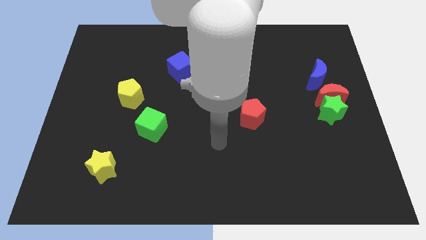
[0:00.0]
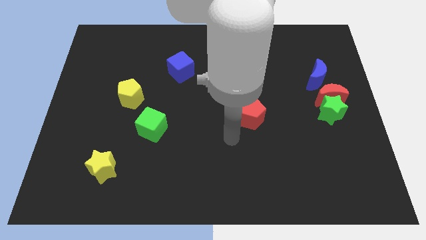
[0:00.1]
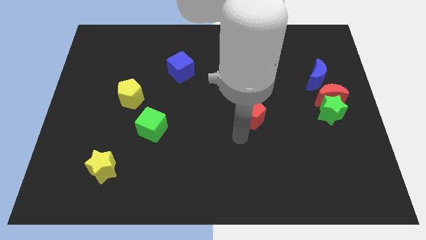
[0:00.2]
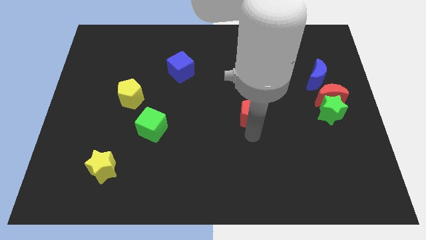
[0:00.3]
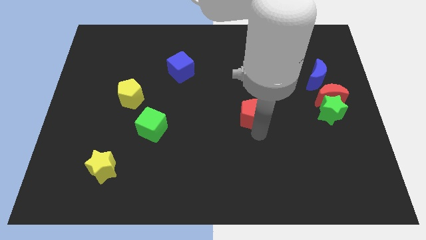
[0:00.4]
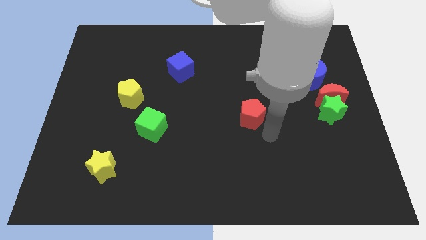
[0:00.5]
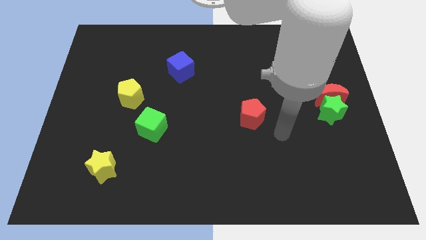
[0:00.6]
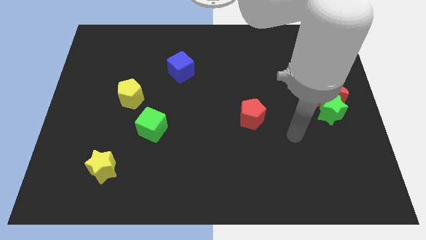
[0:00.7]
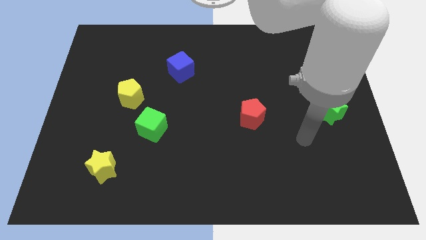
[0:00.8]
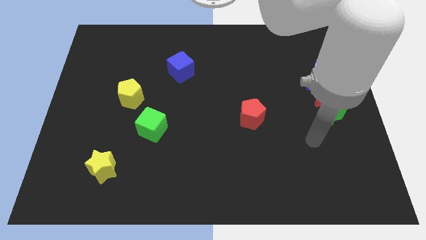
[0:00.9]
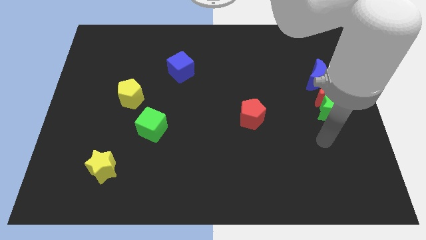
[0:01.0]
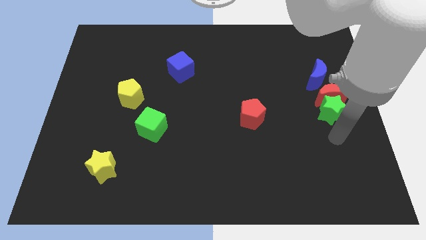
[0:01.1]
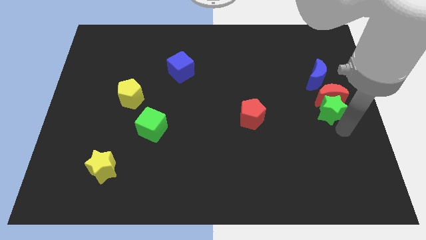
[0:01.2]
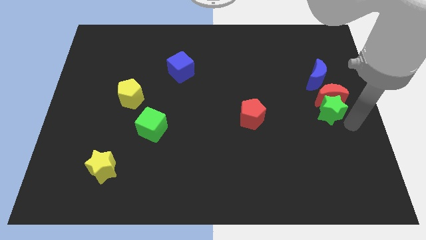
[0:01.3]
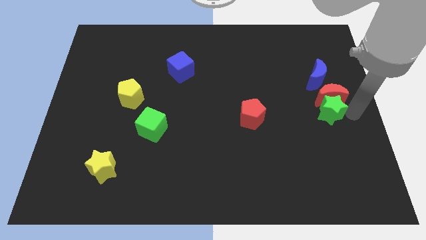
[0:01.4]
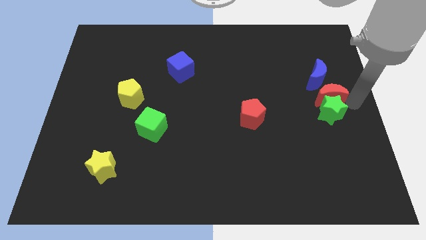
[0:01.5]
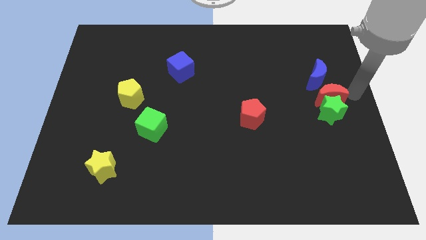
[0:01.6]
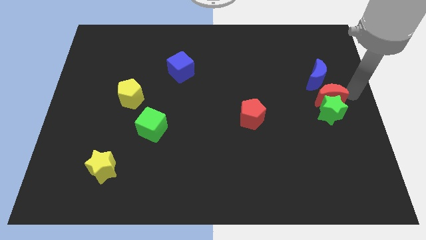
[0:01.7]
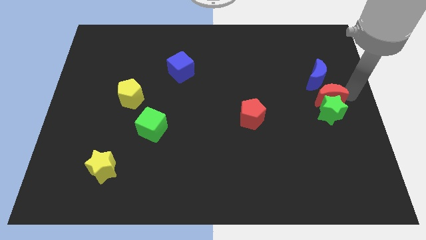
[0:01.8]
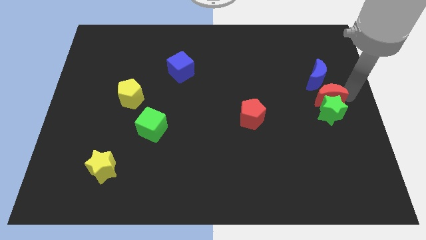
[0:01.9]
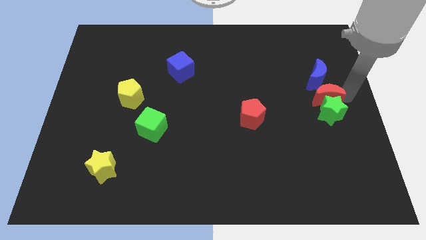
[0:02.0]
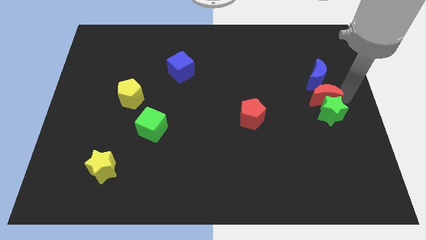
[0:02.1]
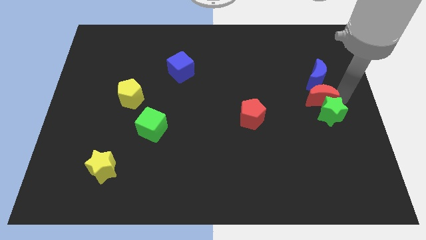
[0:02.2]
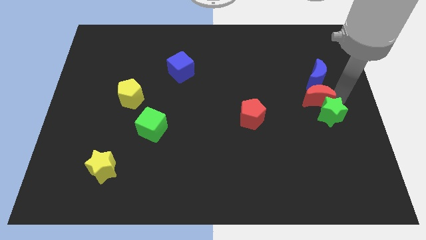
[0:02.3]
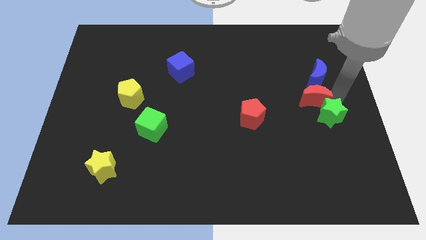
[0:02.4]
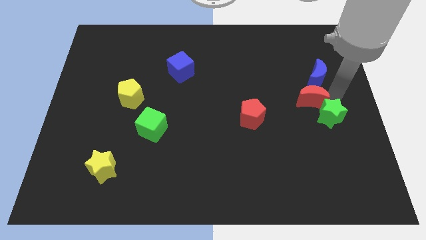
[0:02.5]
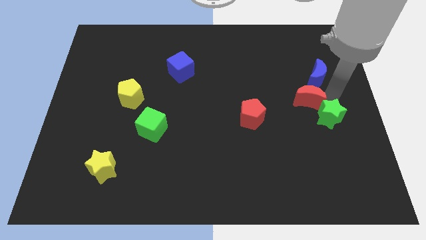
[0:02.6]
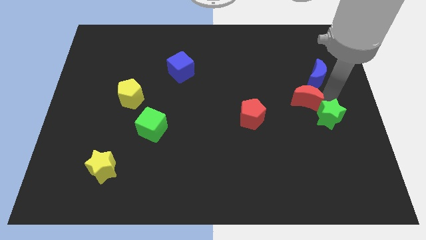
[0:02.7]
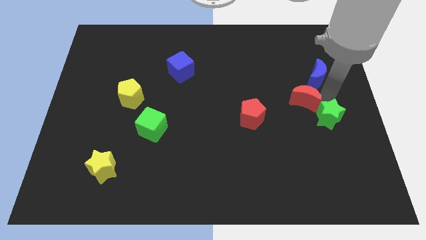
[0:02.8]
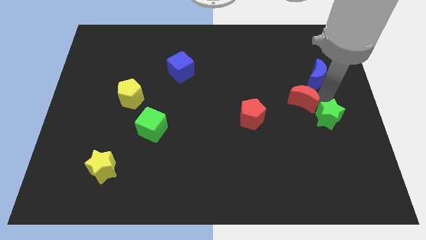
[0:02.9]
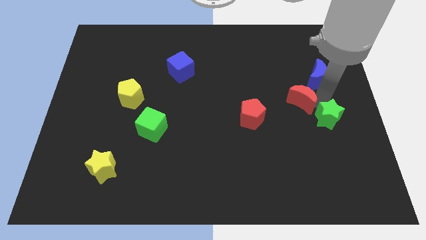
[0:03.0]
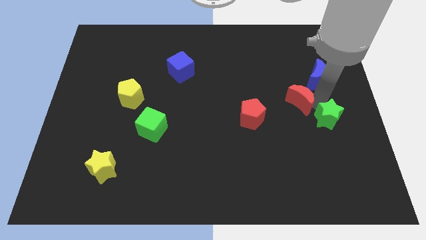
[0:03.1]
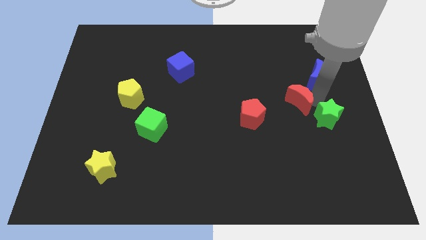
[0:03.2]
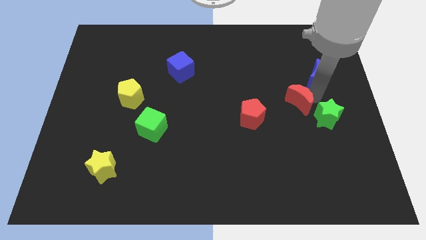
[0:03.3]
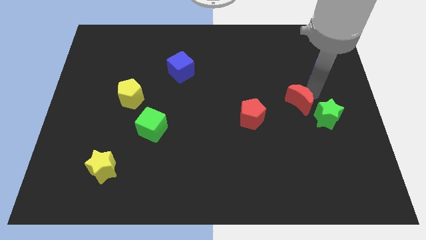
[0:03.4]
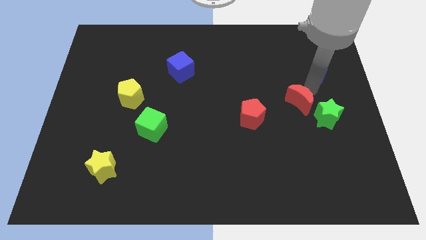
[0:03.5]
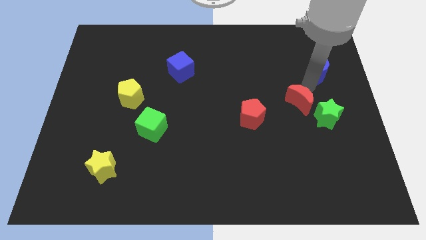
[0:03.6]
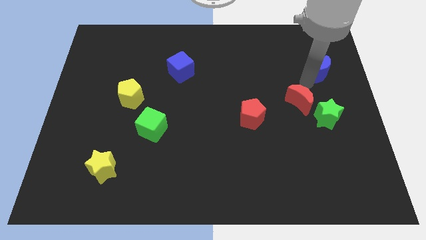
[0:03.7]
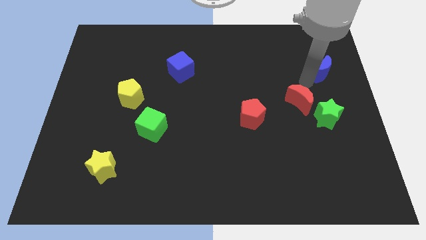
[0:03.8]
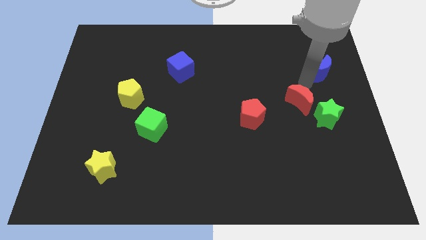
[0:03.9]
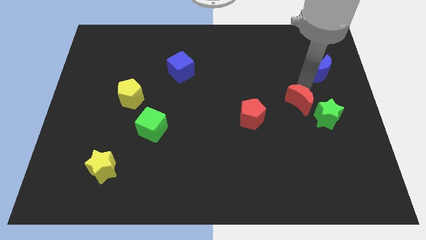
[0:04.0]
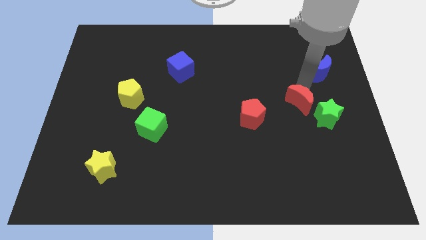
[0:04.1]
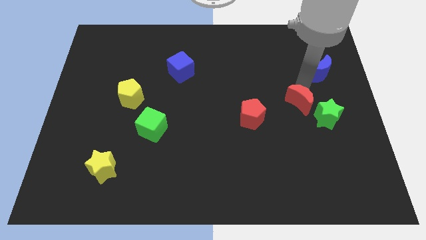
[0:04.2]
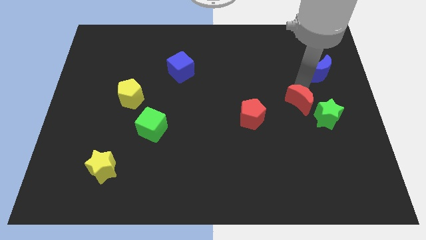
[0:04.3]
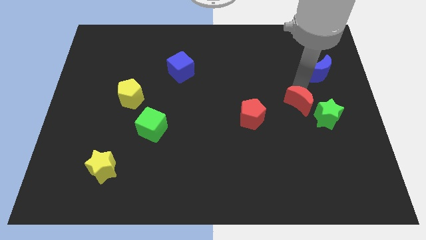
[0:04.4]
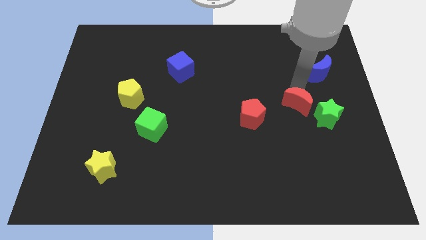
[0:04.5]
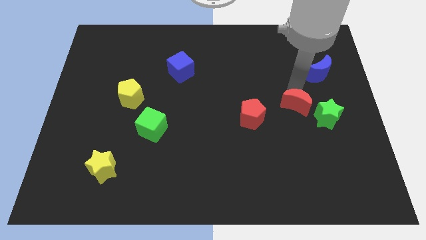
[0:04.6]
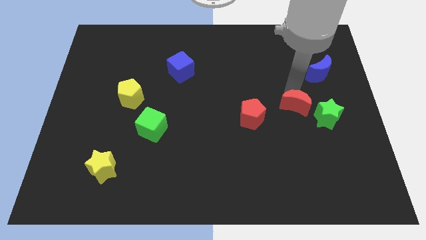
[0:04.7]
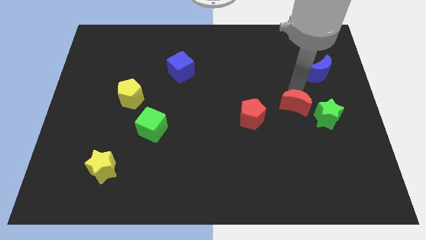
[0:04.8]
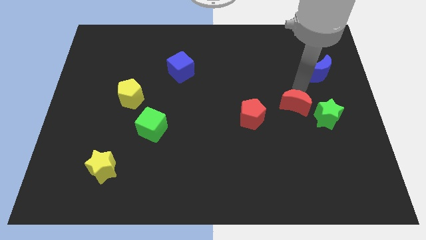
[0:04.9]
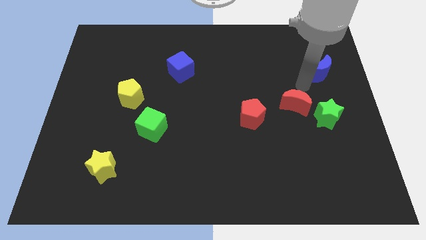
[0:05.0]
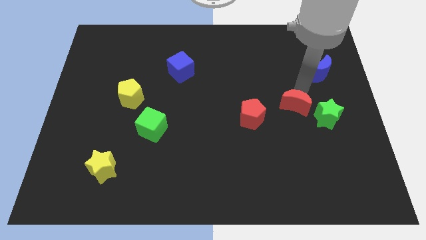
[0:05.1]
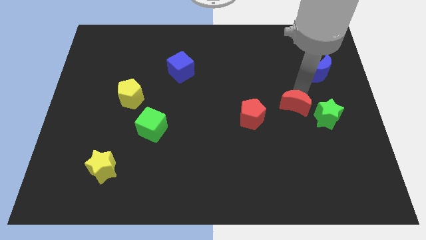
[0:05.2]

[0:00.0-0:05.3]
push the red moon diagonally downwards and to the left a little

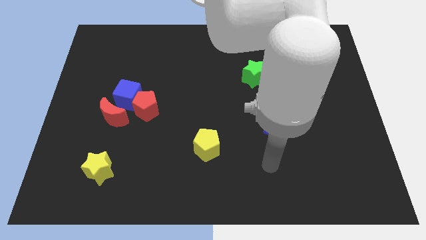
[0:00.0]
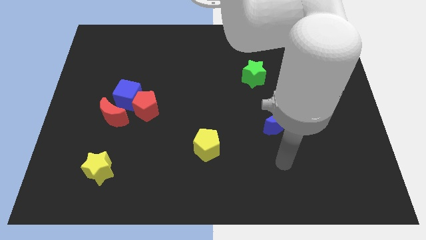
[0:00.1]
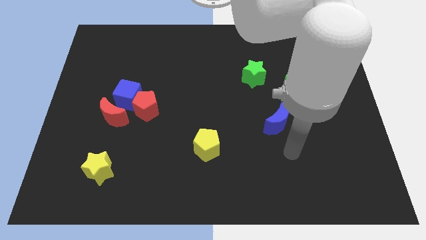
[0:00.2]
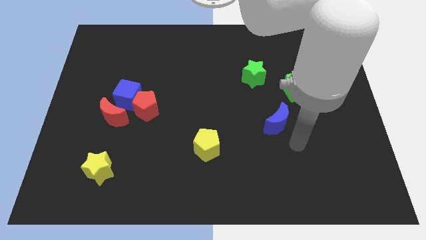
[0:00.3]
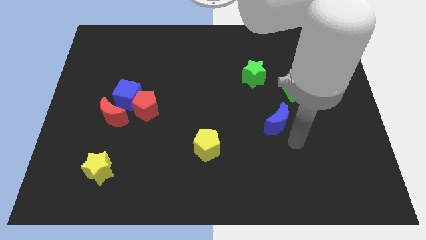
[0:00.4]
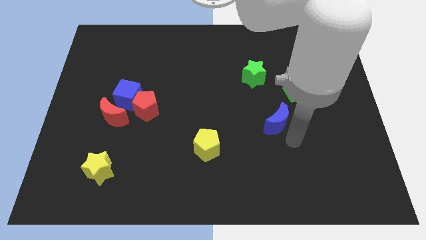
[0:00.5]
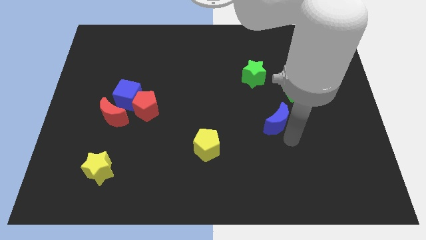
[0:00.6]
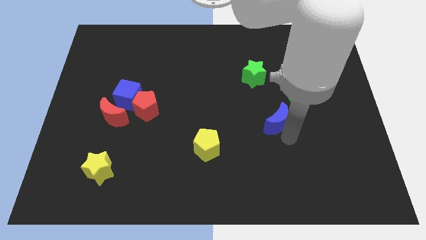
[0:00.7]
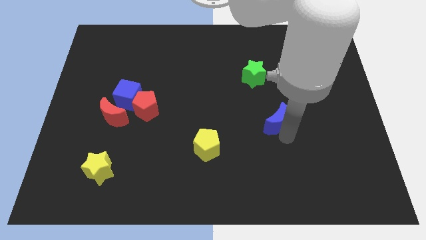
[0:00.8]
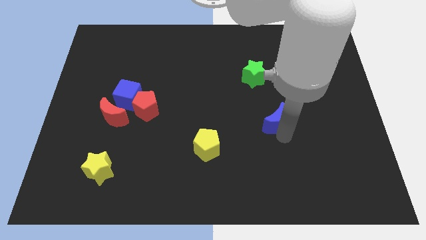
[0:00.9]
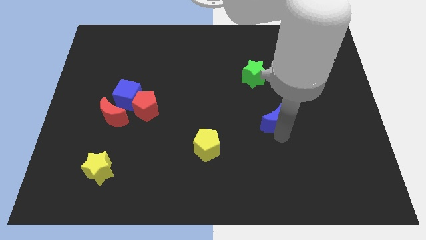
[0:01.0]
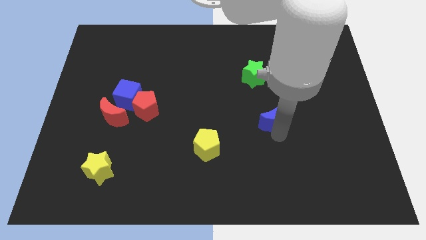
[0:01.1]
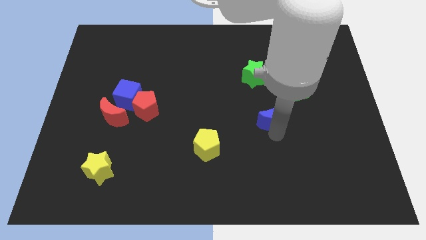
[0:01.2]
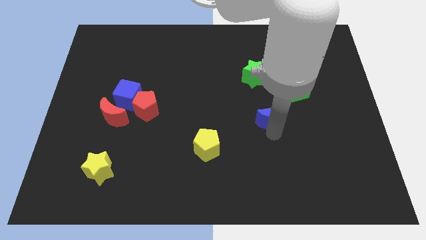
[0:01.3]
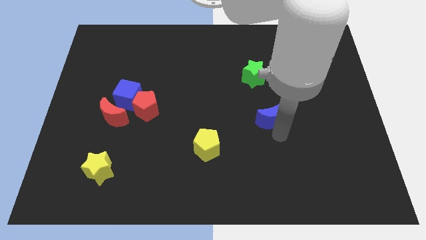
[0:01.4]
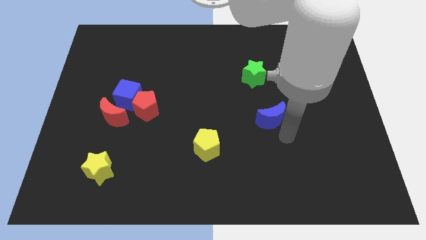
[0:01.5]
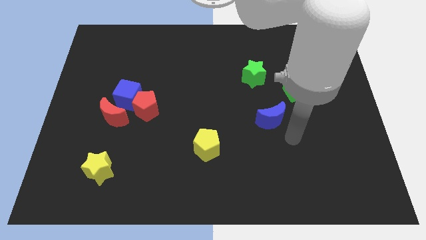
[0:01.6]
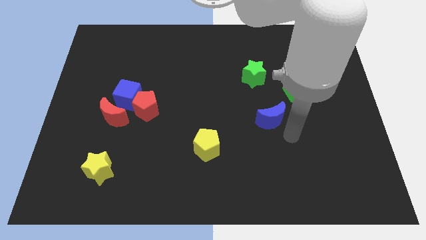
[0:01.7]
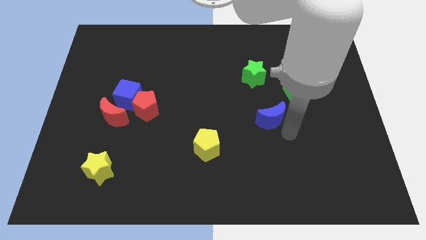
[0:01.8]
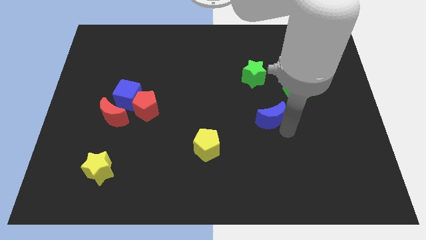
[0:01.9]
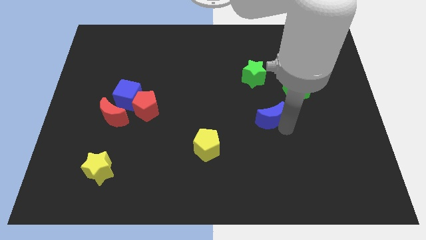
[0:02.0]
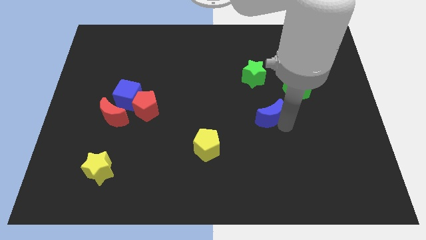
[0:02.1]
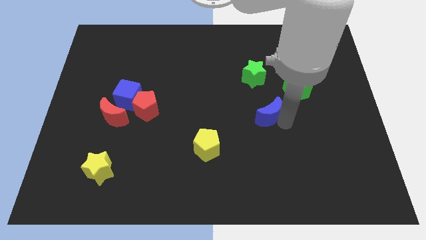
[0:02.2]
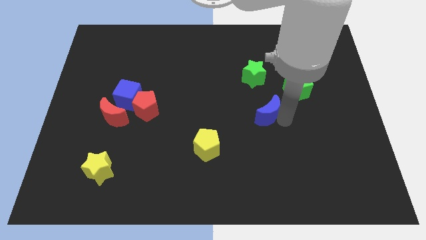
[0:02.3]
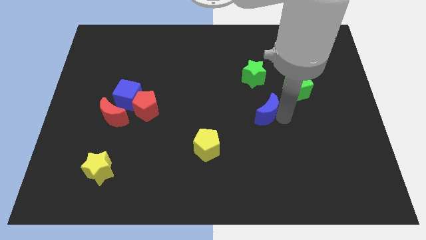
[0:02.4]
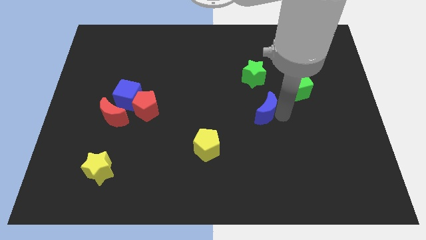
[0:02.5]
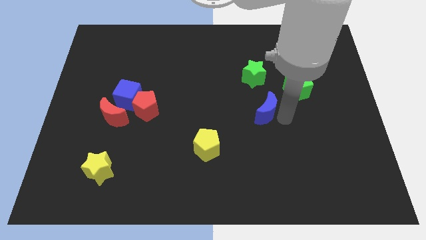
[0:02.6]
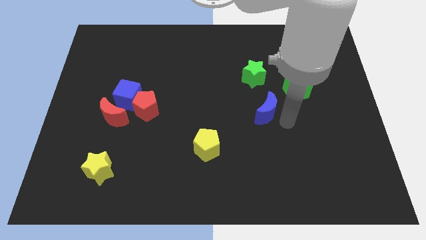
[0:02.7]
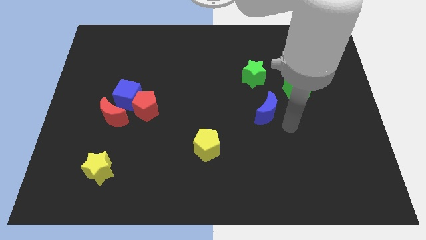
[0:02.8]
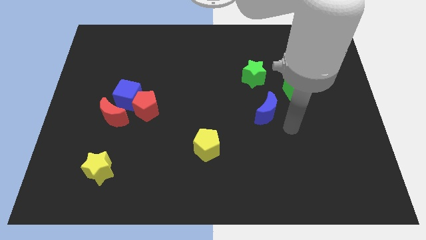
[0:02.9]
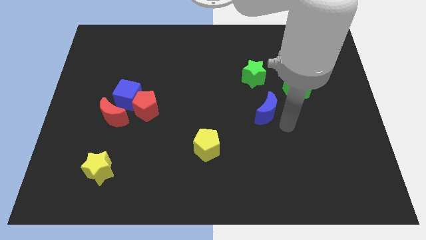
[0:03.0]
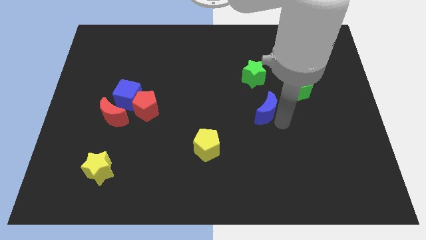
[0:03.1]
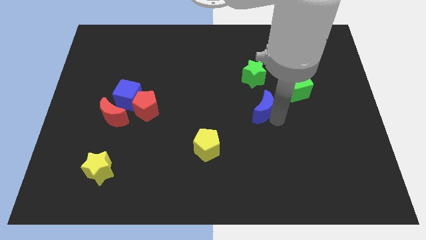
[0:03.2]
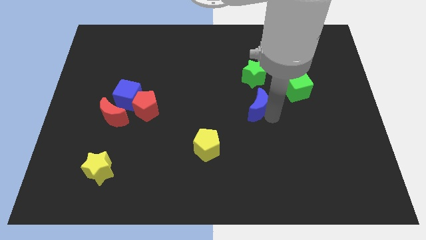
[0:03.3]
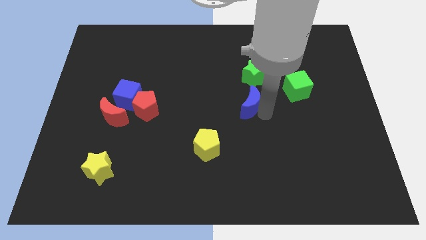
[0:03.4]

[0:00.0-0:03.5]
slightly slide the blue moon up and then left
